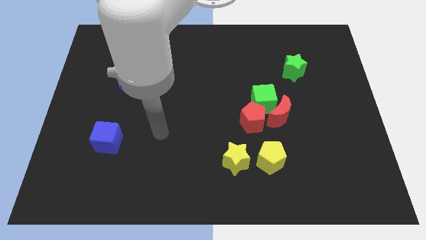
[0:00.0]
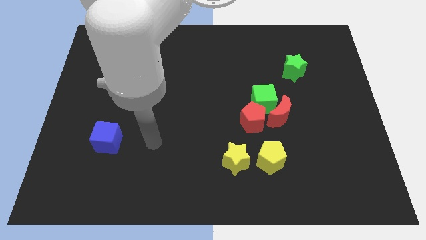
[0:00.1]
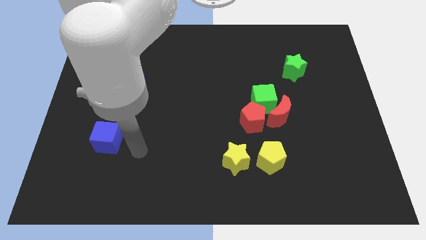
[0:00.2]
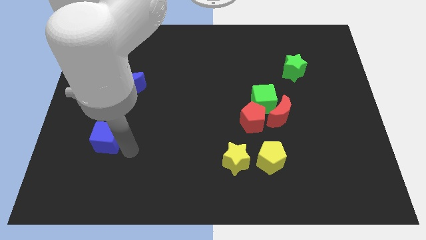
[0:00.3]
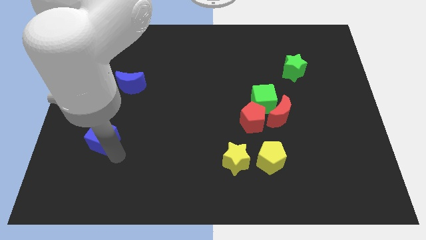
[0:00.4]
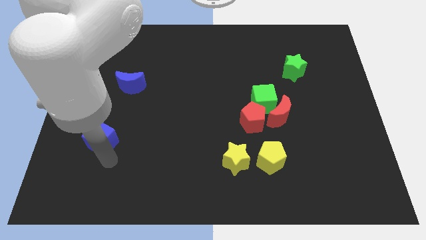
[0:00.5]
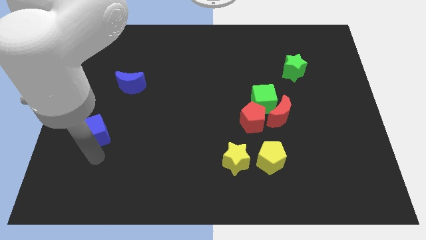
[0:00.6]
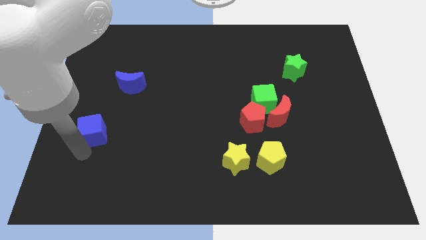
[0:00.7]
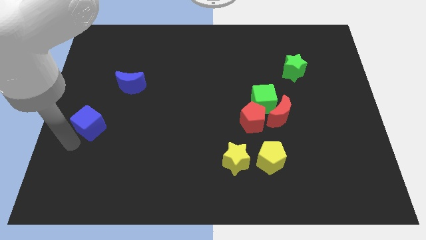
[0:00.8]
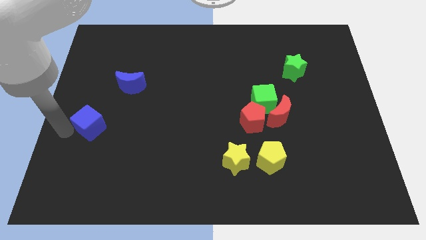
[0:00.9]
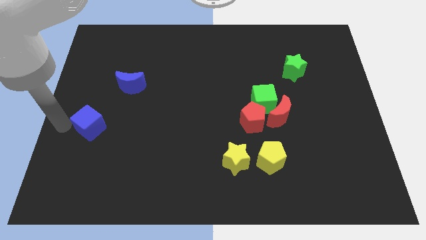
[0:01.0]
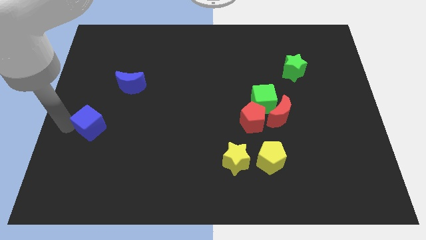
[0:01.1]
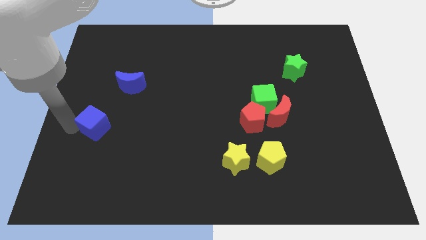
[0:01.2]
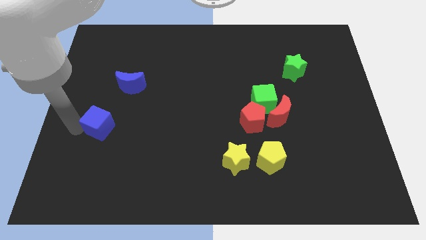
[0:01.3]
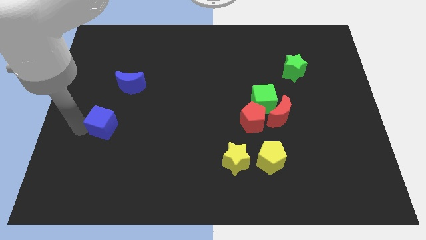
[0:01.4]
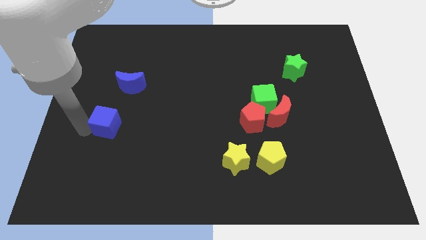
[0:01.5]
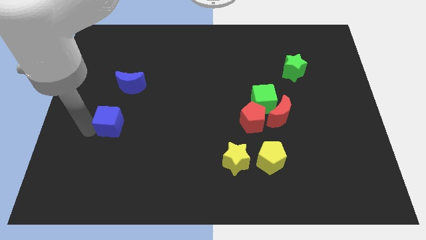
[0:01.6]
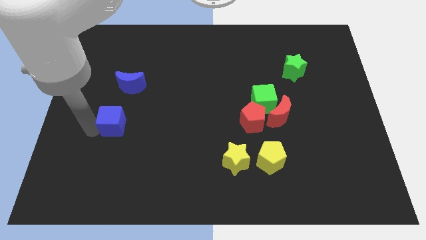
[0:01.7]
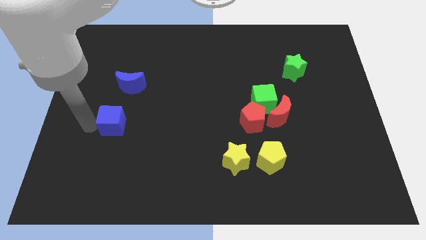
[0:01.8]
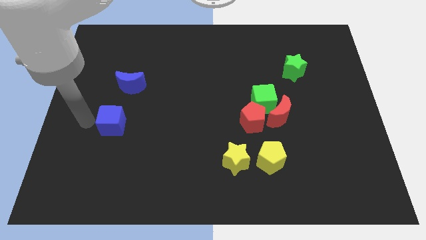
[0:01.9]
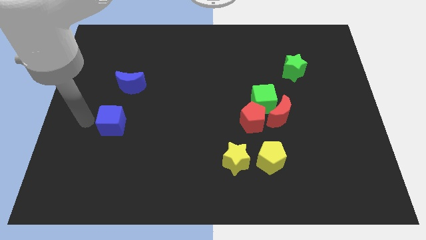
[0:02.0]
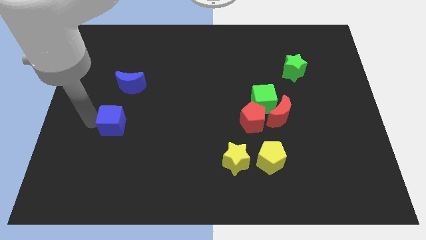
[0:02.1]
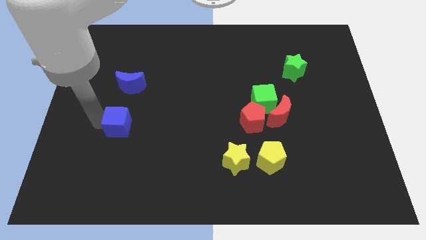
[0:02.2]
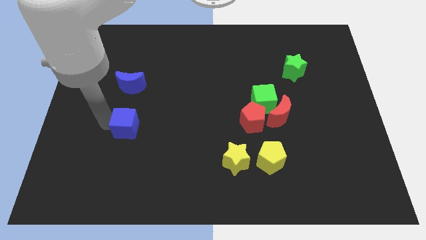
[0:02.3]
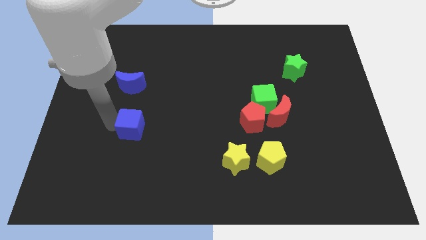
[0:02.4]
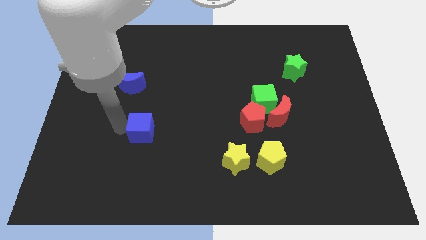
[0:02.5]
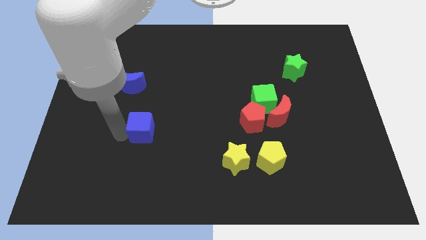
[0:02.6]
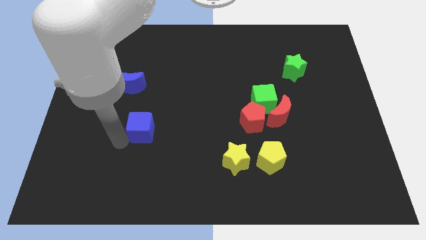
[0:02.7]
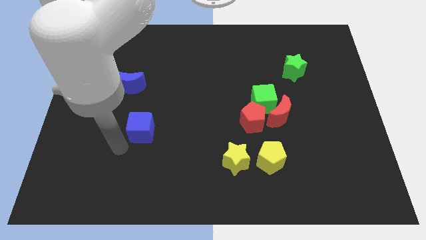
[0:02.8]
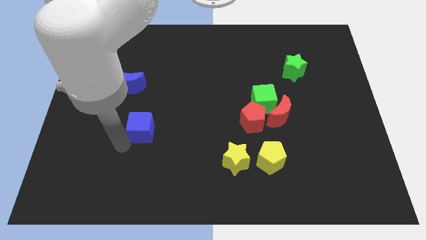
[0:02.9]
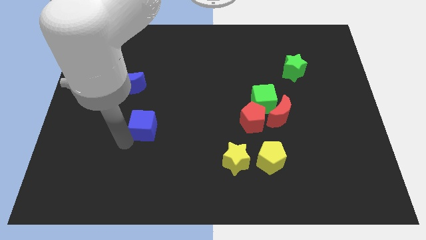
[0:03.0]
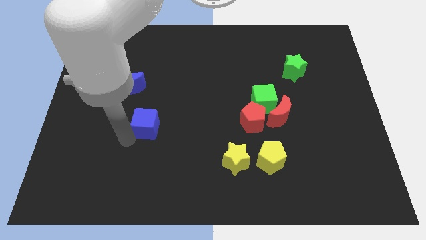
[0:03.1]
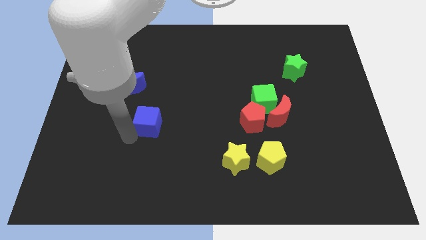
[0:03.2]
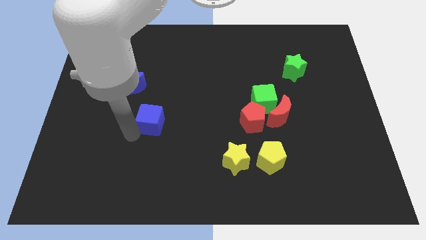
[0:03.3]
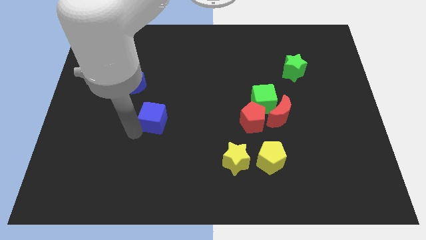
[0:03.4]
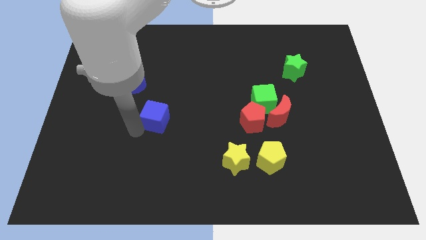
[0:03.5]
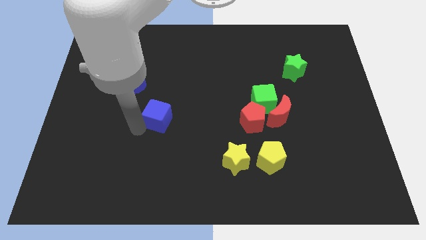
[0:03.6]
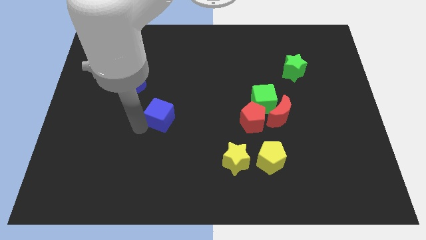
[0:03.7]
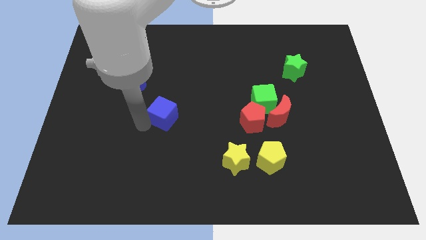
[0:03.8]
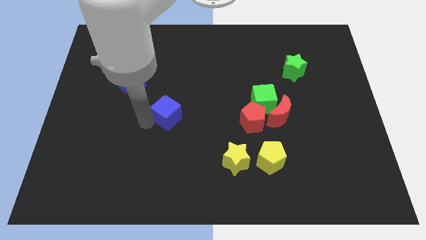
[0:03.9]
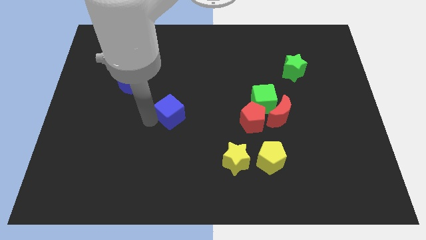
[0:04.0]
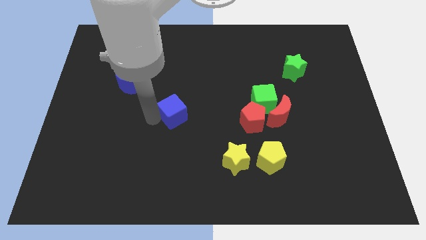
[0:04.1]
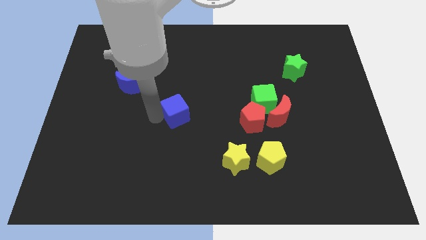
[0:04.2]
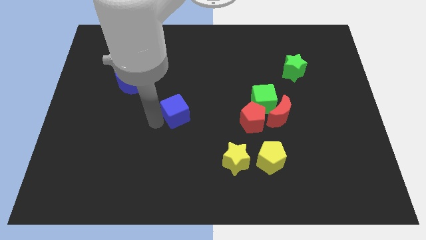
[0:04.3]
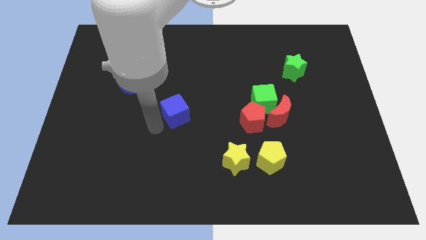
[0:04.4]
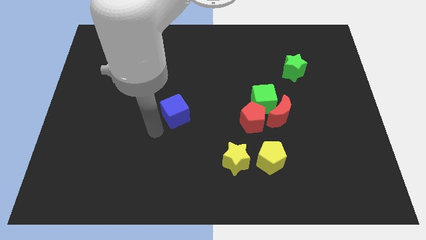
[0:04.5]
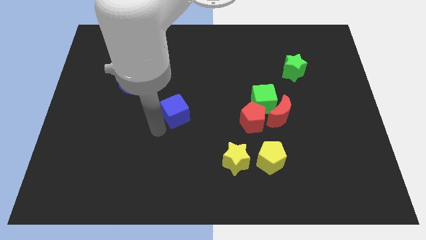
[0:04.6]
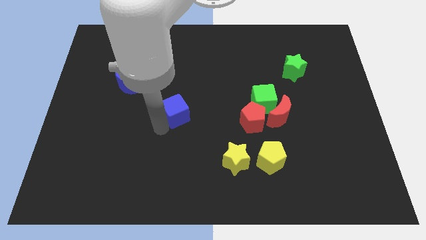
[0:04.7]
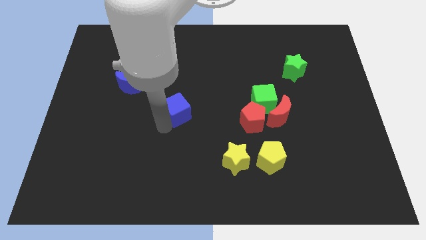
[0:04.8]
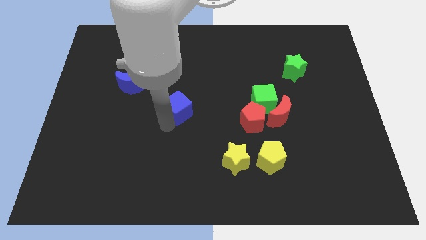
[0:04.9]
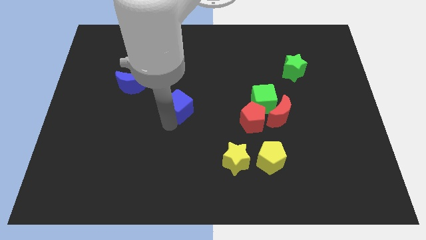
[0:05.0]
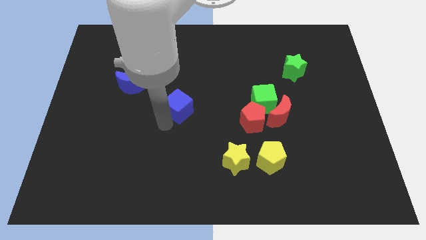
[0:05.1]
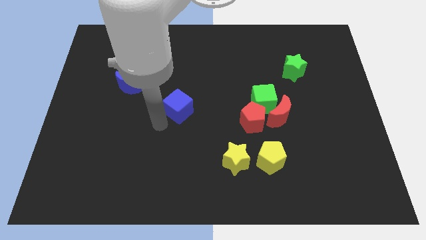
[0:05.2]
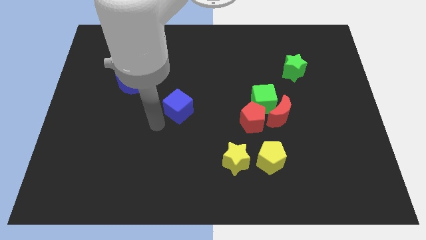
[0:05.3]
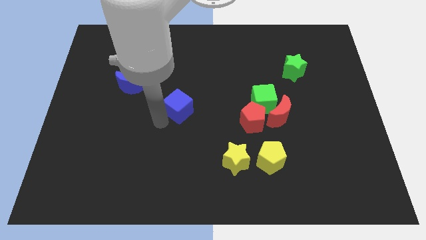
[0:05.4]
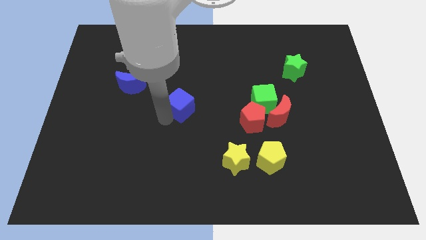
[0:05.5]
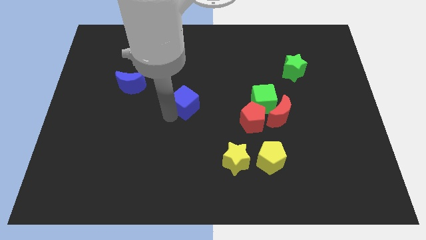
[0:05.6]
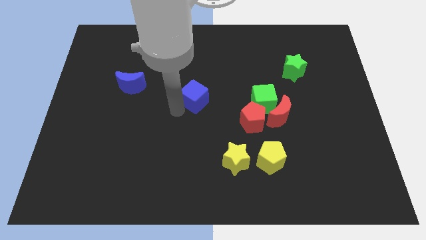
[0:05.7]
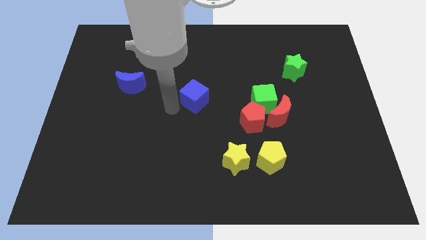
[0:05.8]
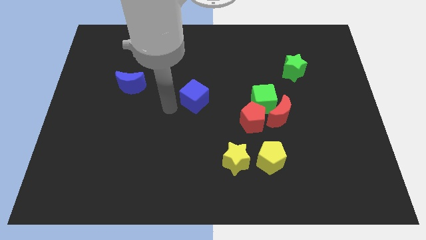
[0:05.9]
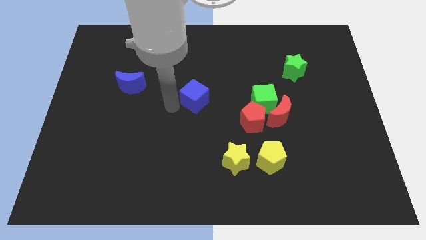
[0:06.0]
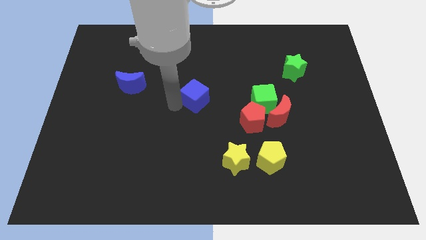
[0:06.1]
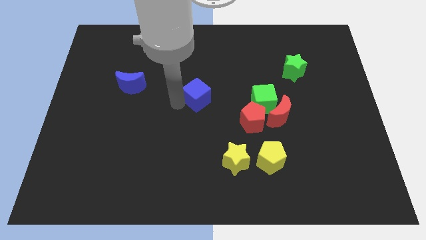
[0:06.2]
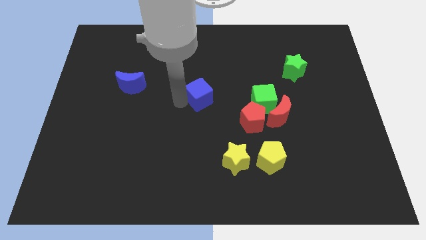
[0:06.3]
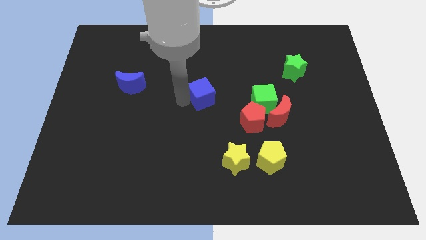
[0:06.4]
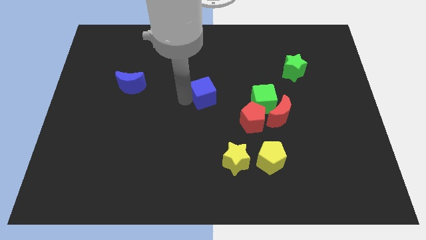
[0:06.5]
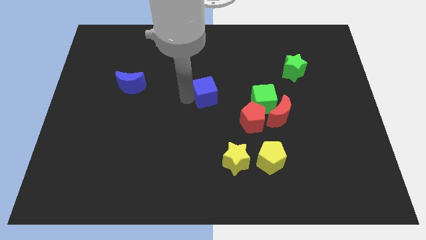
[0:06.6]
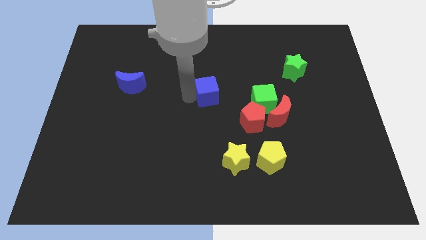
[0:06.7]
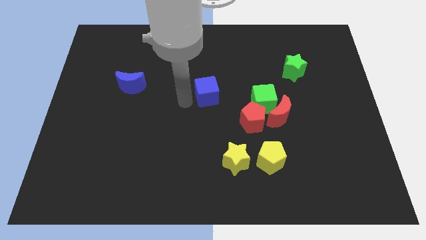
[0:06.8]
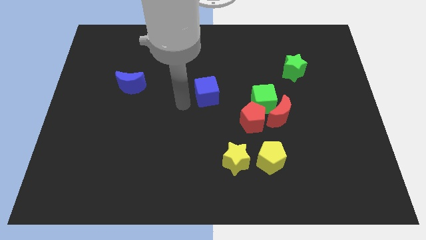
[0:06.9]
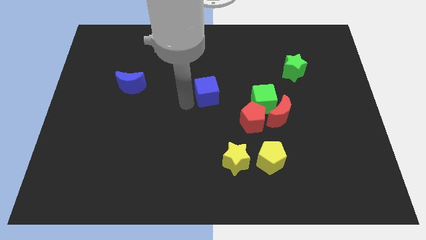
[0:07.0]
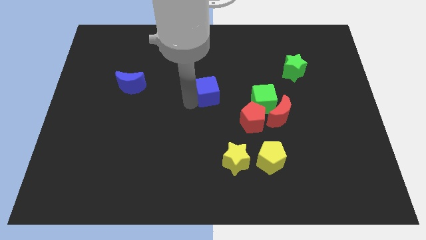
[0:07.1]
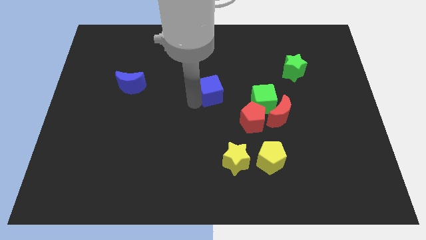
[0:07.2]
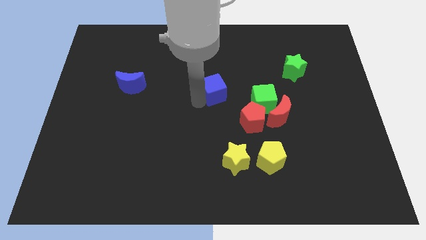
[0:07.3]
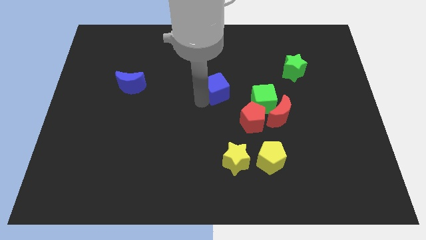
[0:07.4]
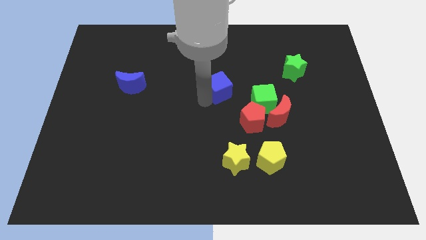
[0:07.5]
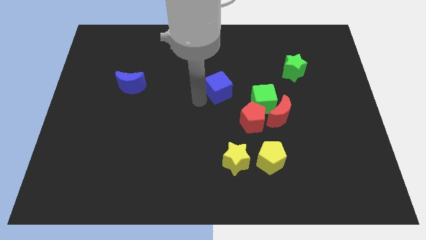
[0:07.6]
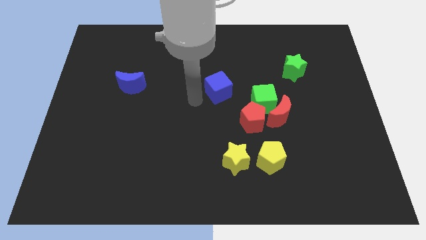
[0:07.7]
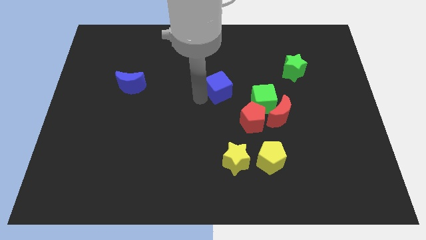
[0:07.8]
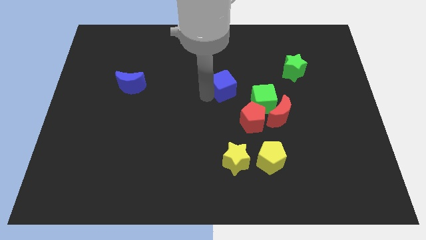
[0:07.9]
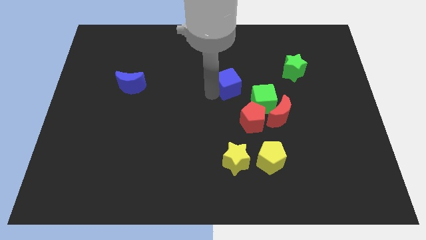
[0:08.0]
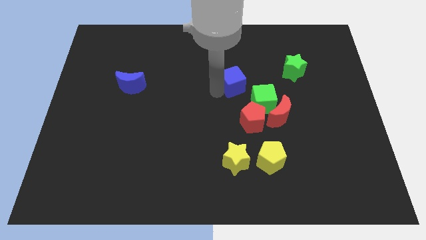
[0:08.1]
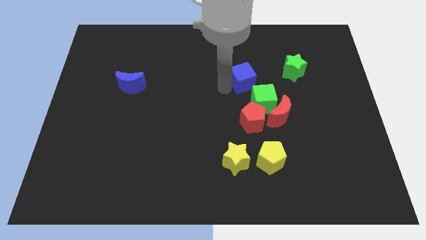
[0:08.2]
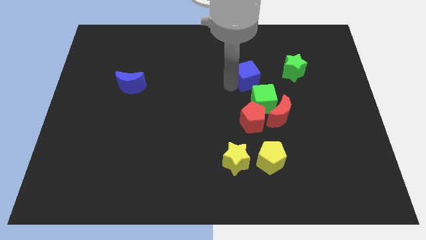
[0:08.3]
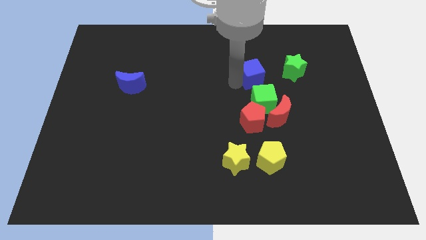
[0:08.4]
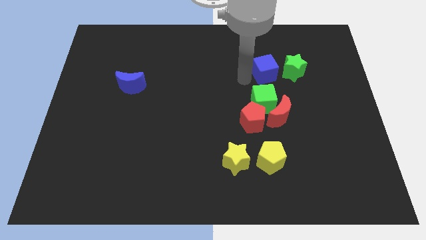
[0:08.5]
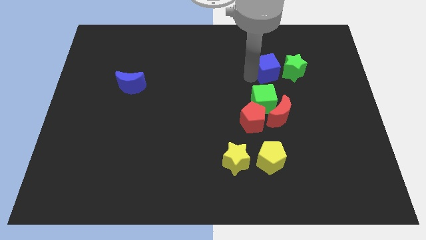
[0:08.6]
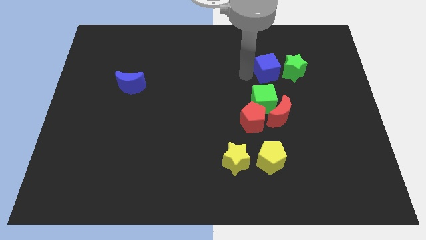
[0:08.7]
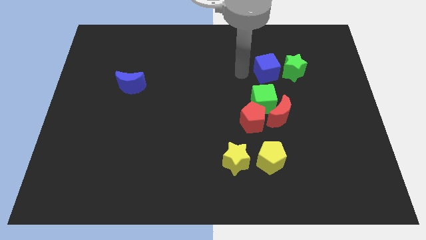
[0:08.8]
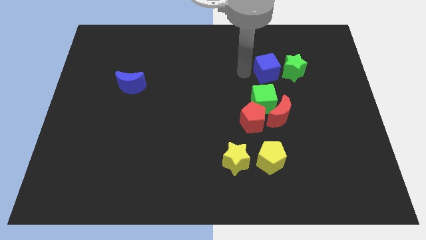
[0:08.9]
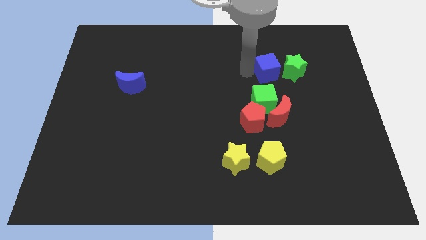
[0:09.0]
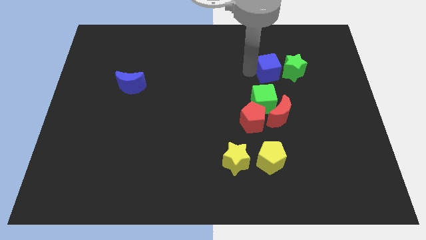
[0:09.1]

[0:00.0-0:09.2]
move the blue cube to the green star
